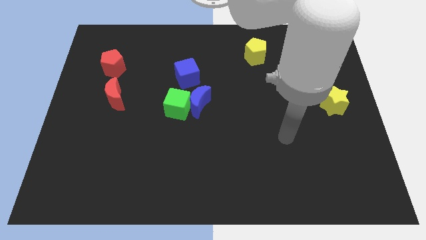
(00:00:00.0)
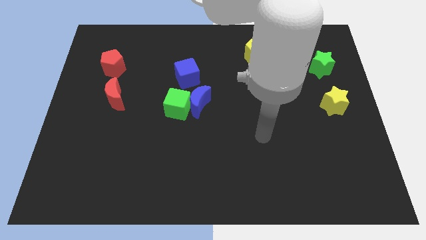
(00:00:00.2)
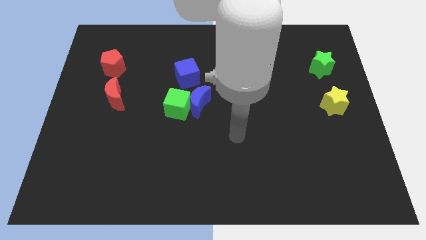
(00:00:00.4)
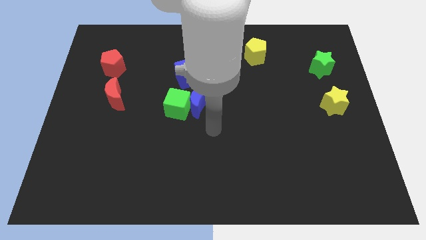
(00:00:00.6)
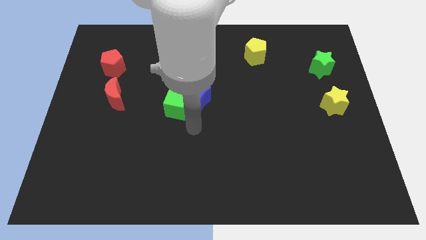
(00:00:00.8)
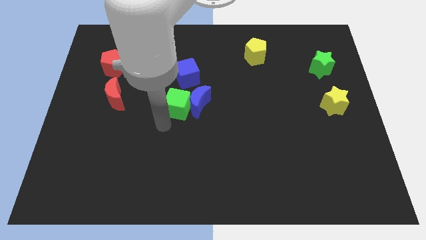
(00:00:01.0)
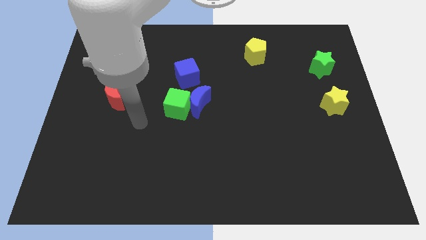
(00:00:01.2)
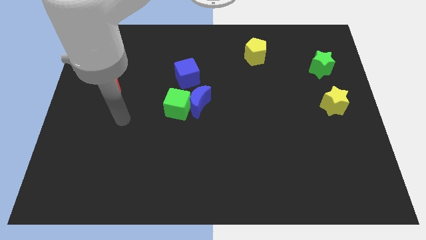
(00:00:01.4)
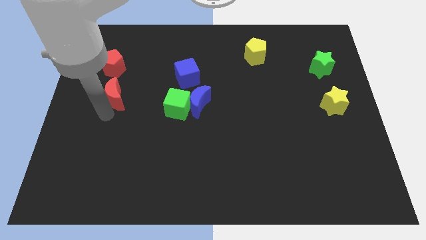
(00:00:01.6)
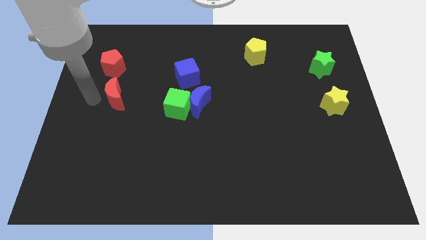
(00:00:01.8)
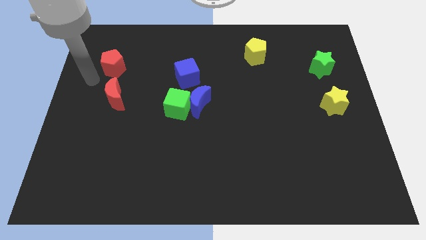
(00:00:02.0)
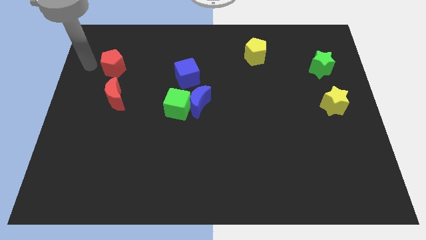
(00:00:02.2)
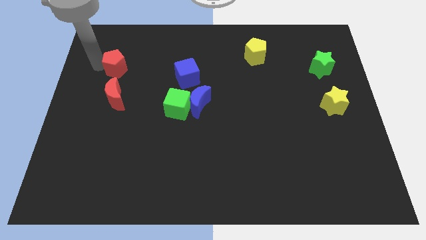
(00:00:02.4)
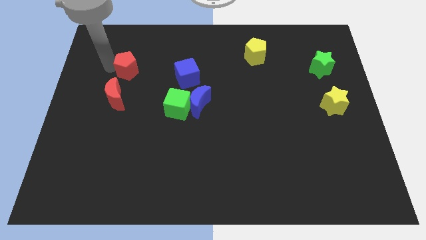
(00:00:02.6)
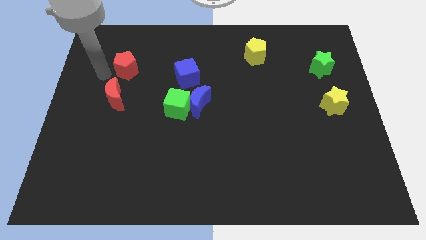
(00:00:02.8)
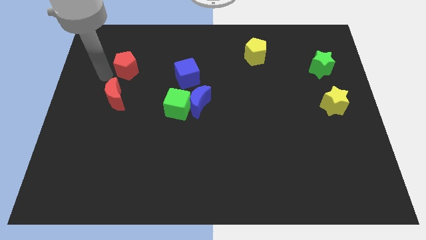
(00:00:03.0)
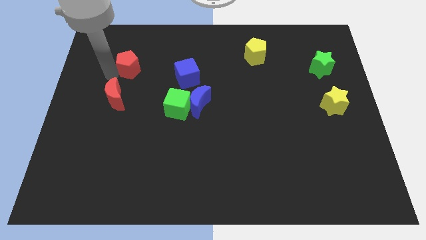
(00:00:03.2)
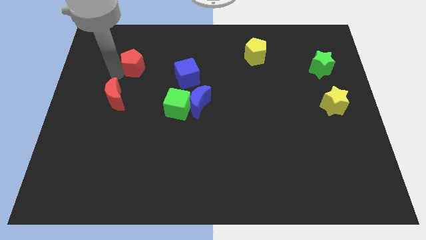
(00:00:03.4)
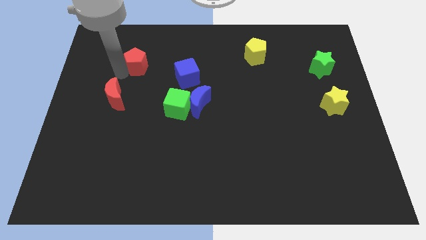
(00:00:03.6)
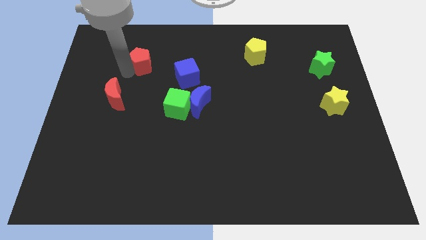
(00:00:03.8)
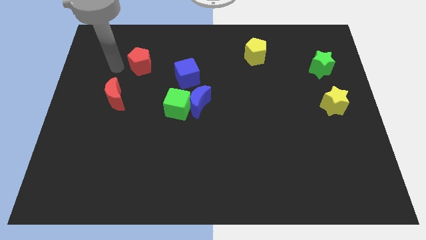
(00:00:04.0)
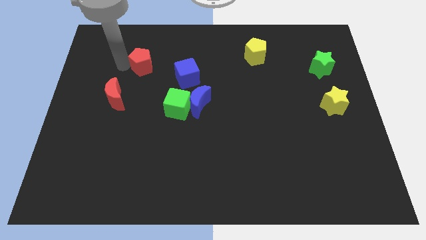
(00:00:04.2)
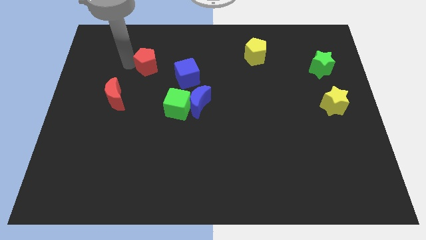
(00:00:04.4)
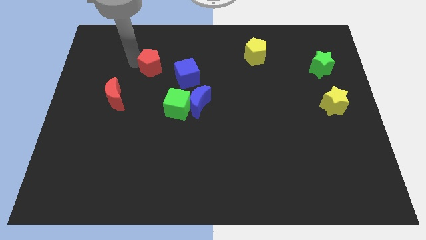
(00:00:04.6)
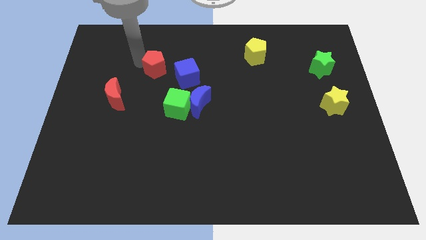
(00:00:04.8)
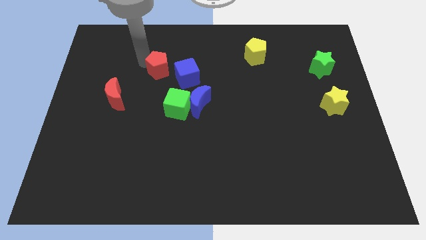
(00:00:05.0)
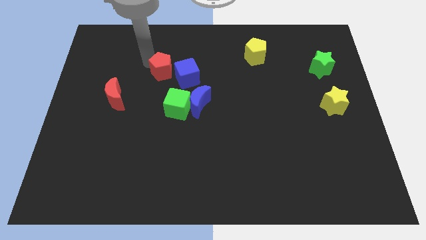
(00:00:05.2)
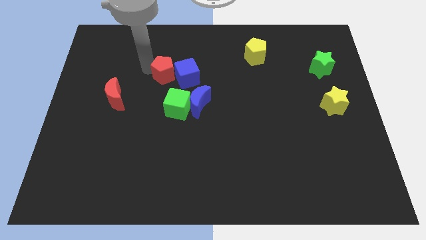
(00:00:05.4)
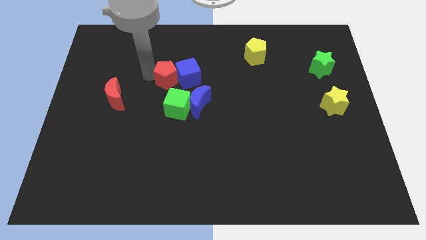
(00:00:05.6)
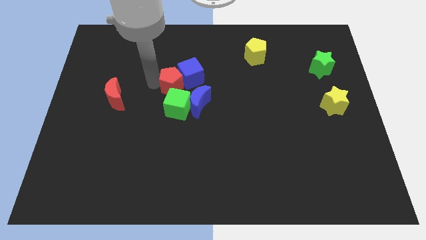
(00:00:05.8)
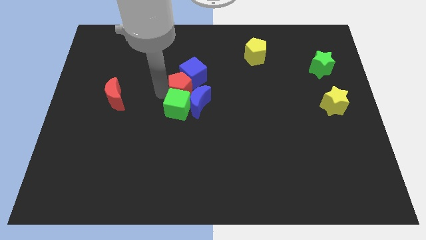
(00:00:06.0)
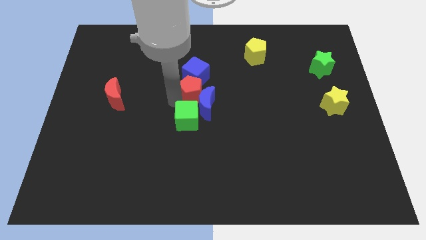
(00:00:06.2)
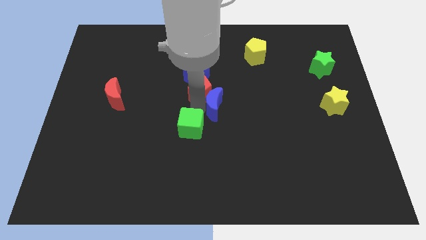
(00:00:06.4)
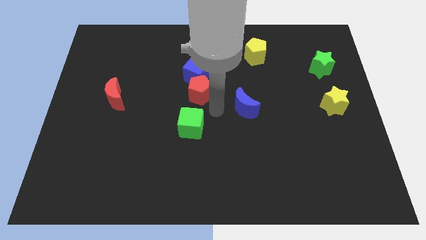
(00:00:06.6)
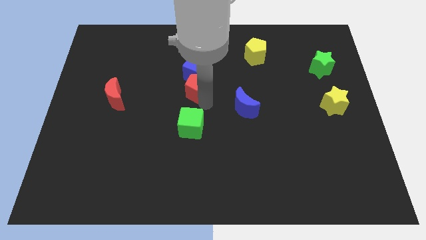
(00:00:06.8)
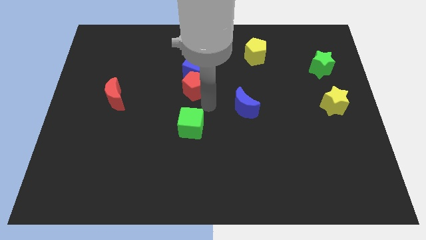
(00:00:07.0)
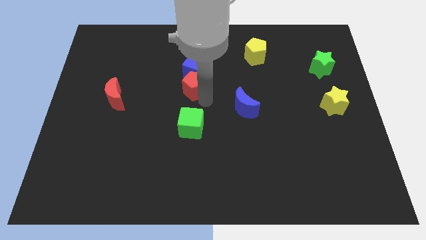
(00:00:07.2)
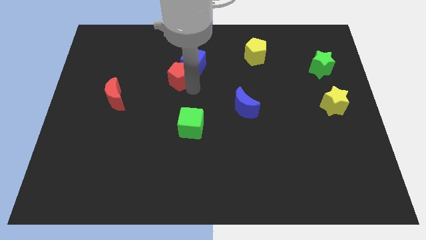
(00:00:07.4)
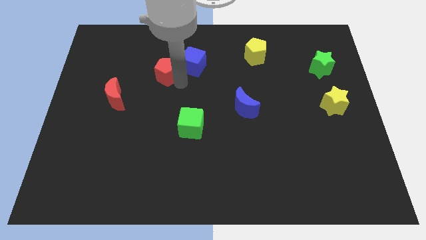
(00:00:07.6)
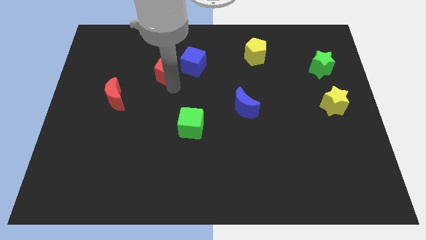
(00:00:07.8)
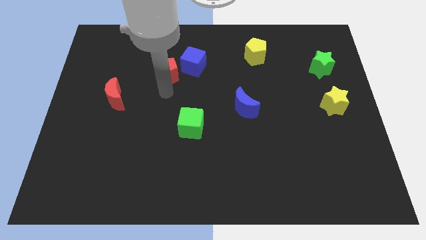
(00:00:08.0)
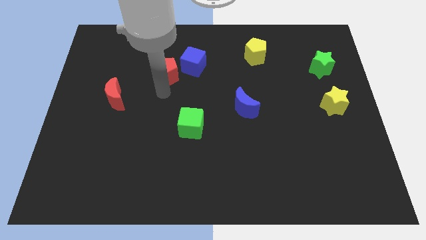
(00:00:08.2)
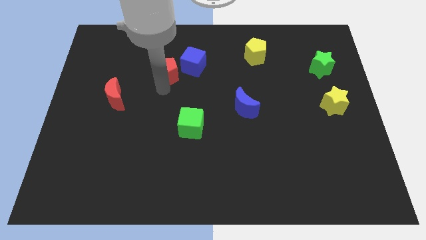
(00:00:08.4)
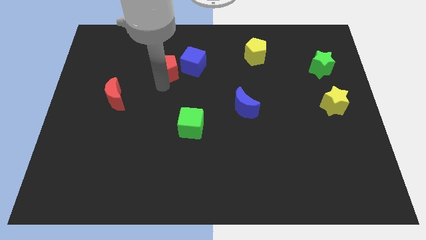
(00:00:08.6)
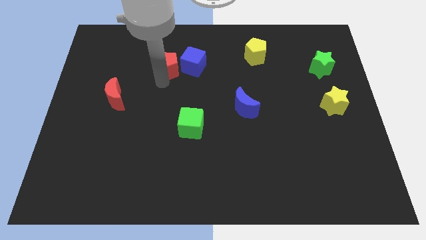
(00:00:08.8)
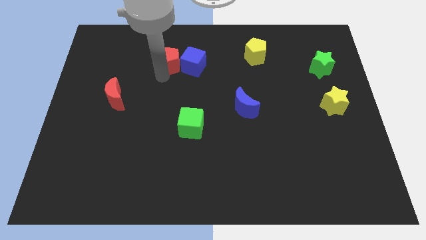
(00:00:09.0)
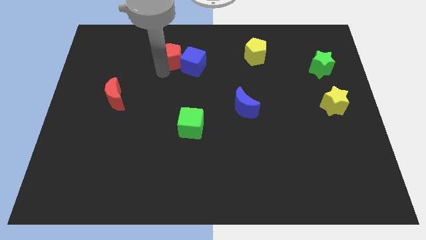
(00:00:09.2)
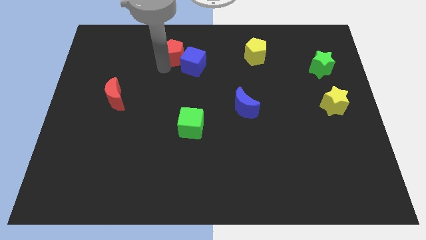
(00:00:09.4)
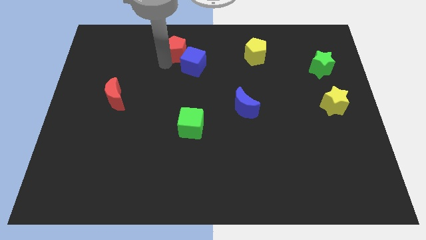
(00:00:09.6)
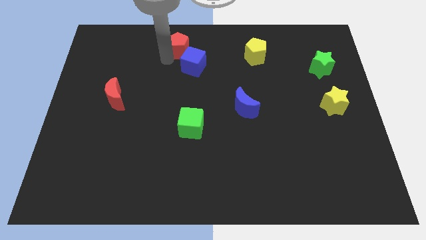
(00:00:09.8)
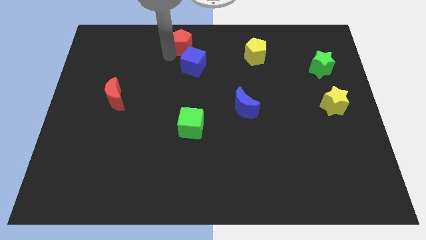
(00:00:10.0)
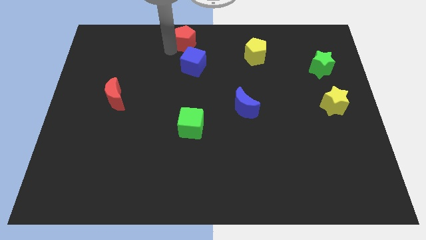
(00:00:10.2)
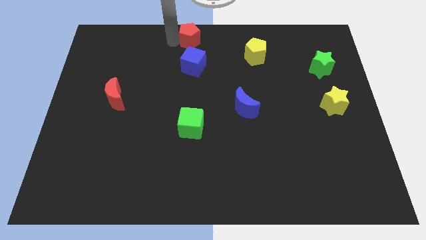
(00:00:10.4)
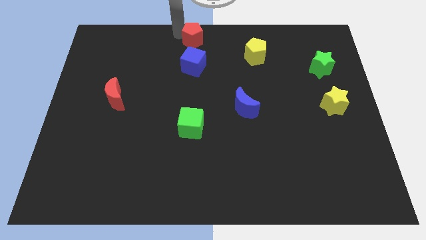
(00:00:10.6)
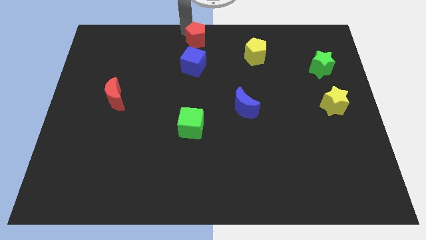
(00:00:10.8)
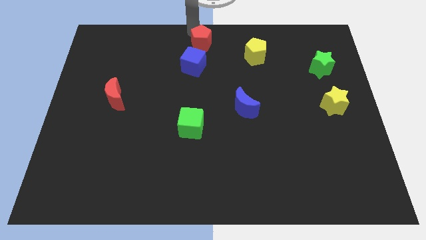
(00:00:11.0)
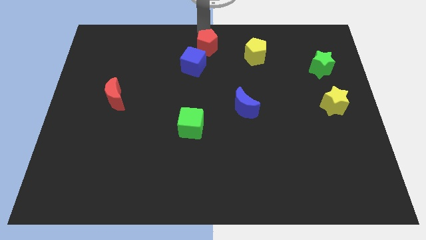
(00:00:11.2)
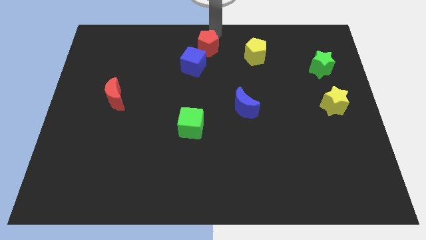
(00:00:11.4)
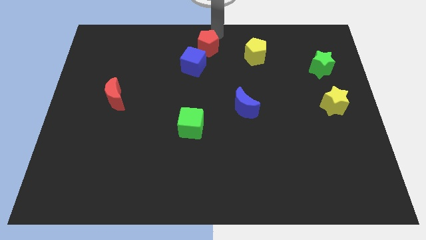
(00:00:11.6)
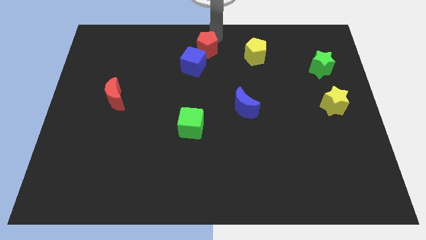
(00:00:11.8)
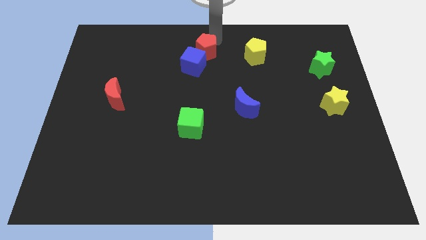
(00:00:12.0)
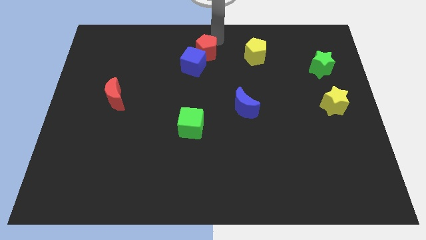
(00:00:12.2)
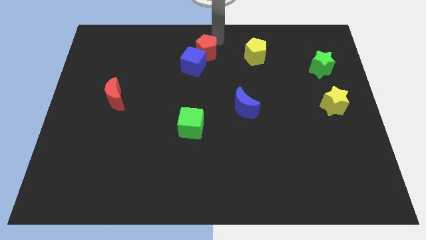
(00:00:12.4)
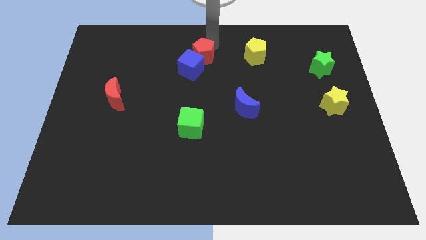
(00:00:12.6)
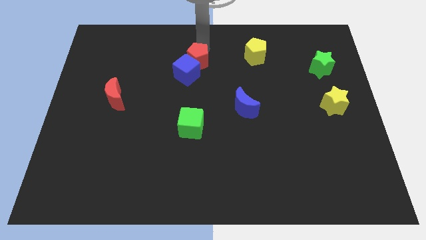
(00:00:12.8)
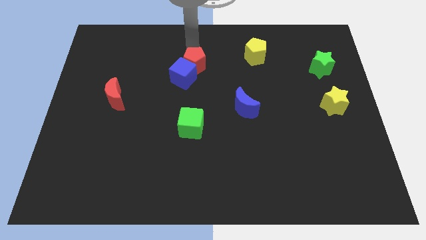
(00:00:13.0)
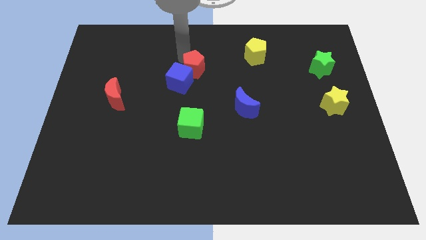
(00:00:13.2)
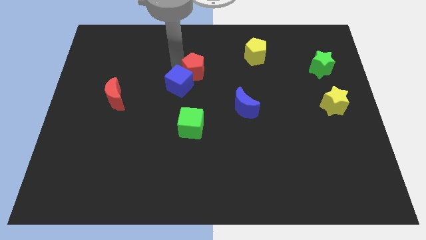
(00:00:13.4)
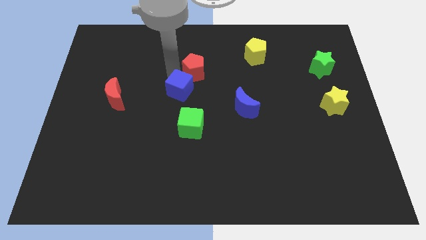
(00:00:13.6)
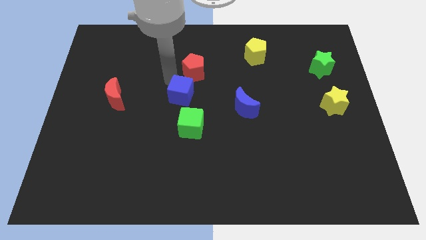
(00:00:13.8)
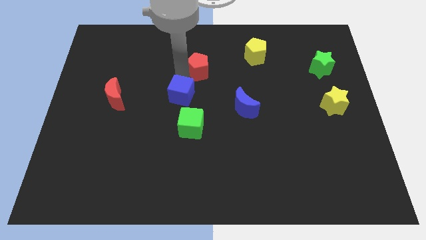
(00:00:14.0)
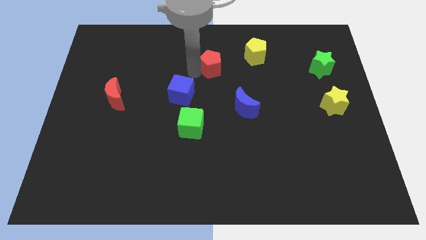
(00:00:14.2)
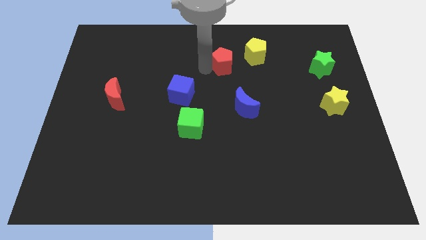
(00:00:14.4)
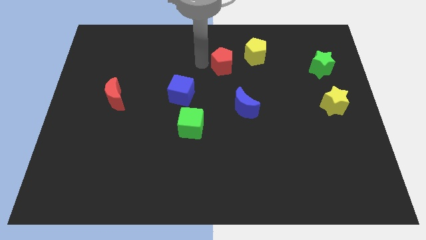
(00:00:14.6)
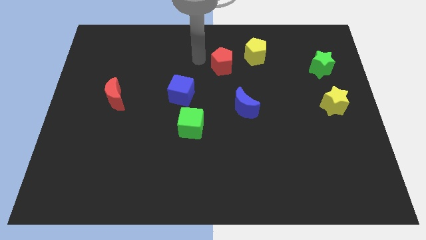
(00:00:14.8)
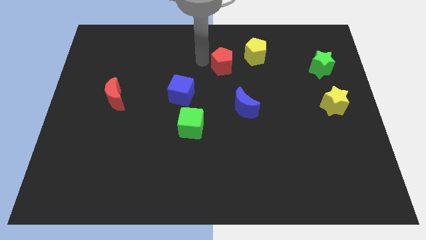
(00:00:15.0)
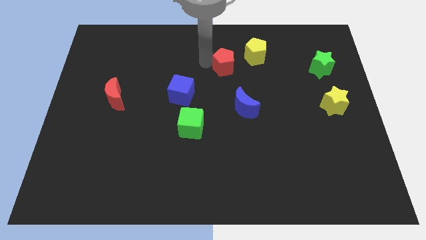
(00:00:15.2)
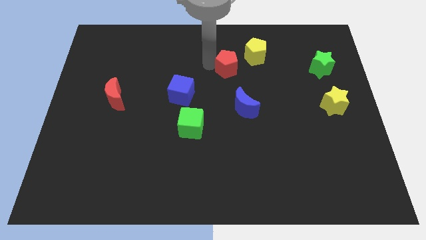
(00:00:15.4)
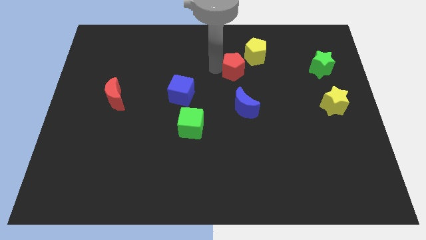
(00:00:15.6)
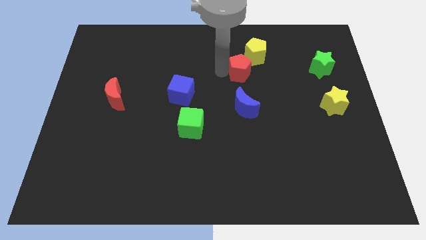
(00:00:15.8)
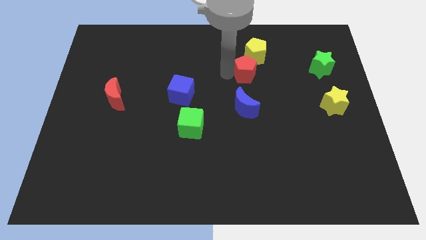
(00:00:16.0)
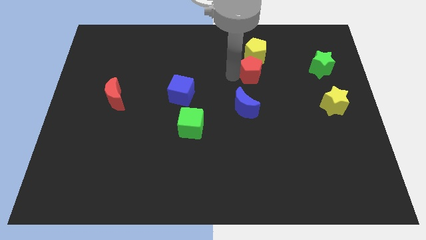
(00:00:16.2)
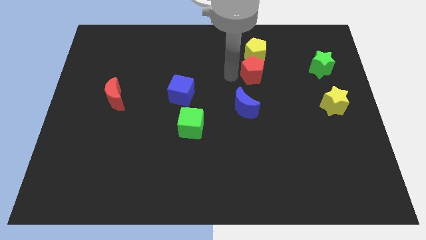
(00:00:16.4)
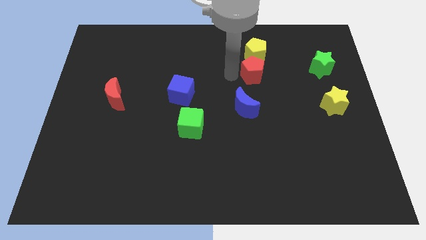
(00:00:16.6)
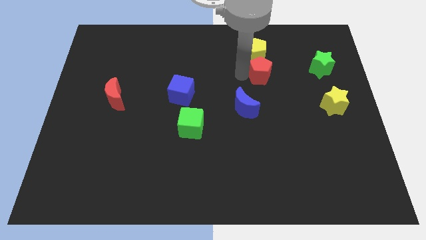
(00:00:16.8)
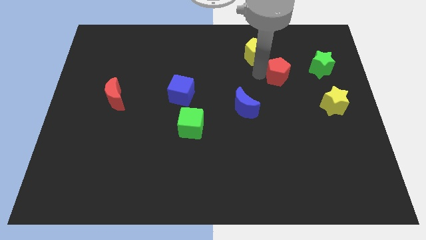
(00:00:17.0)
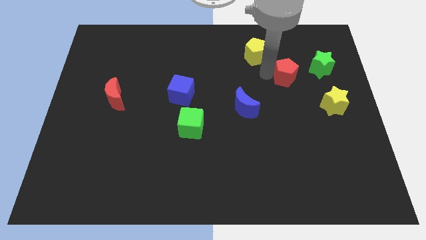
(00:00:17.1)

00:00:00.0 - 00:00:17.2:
slide the red pentagon diagonally down and to the left of the green star
